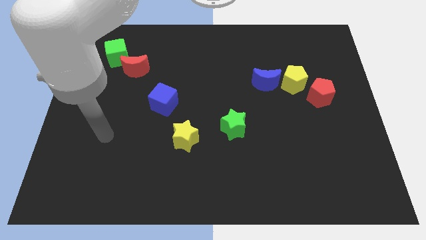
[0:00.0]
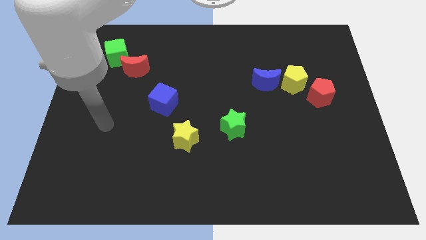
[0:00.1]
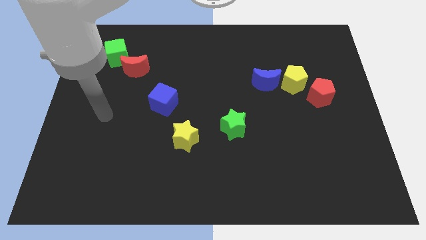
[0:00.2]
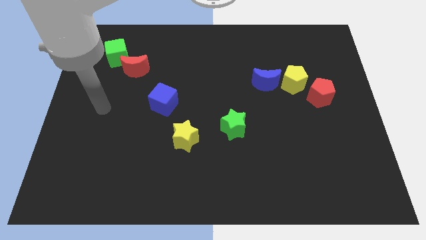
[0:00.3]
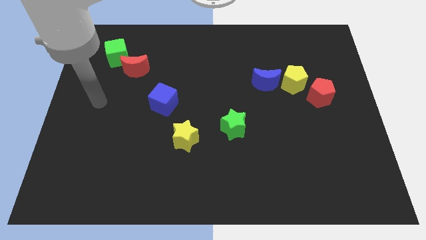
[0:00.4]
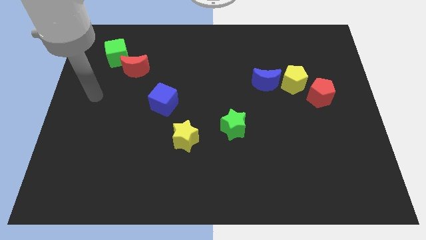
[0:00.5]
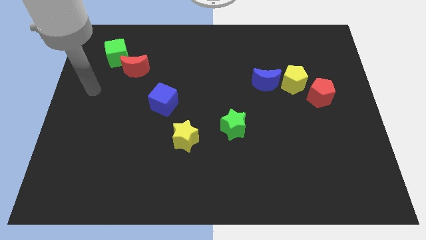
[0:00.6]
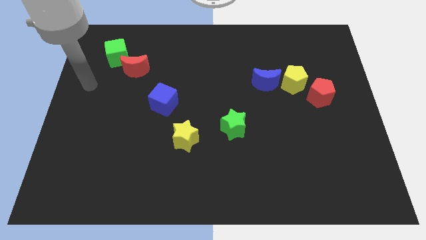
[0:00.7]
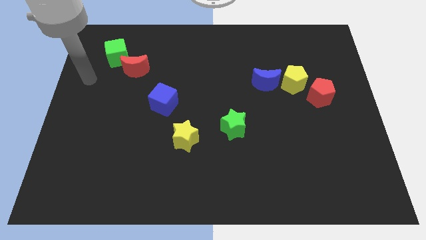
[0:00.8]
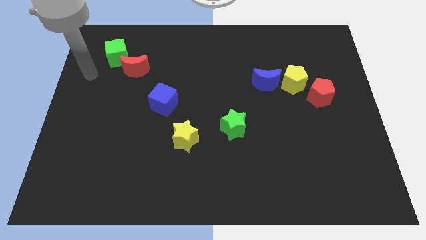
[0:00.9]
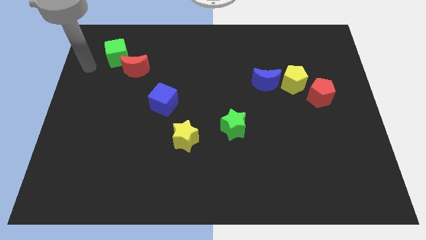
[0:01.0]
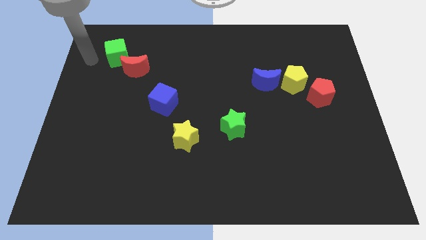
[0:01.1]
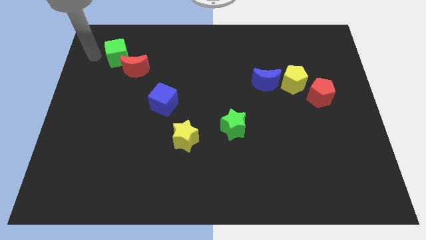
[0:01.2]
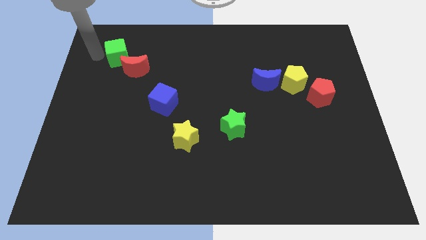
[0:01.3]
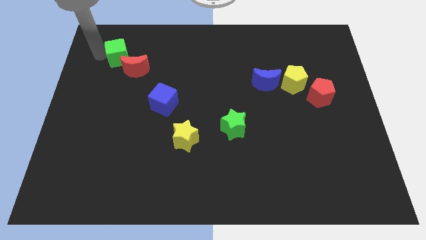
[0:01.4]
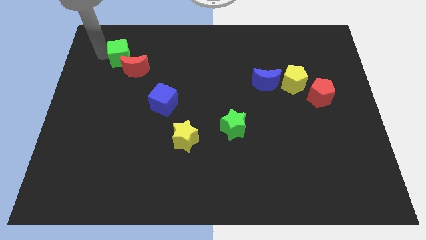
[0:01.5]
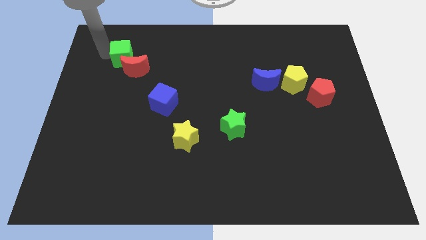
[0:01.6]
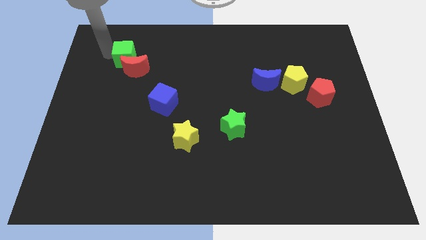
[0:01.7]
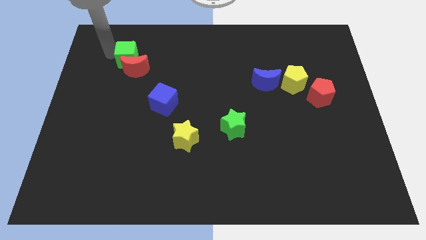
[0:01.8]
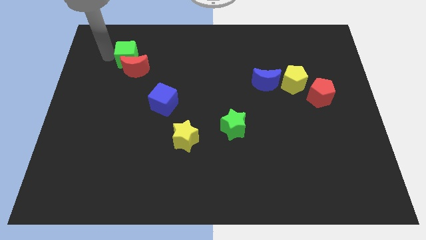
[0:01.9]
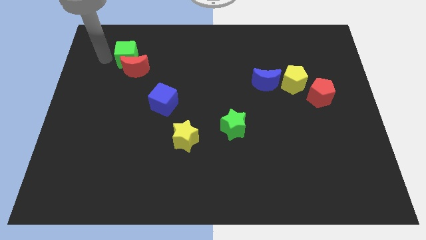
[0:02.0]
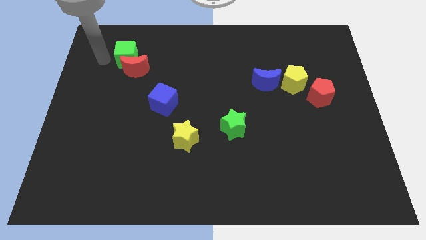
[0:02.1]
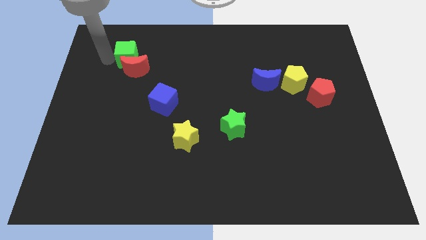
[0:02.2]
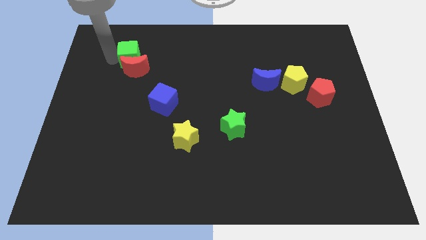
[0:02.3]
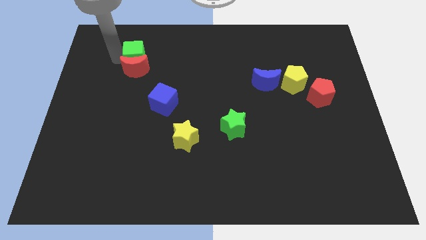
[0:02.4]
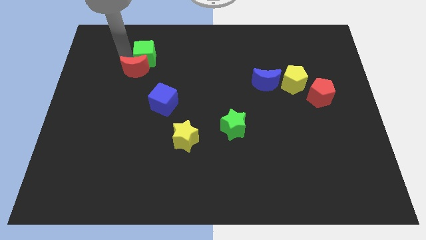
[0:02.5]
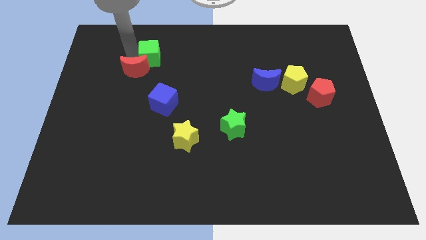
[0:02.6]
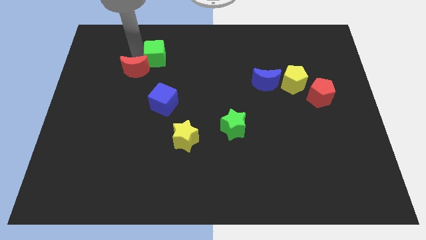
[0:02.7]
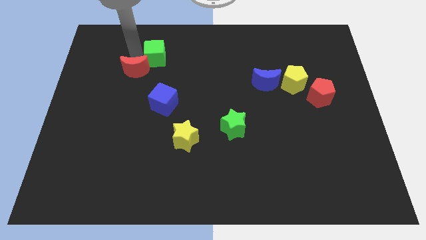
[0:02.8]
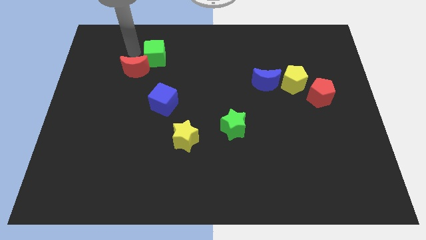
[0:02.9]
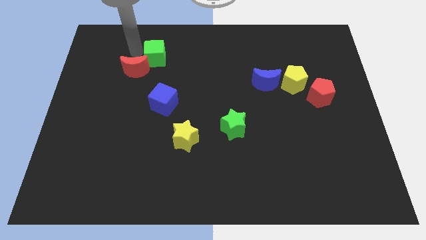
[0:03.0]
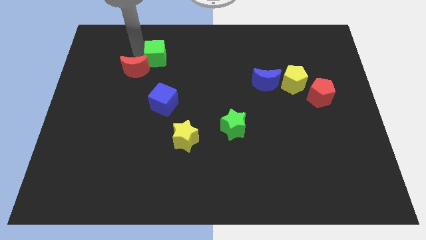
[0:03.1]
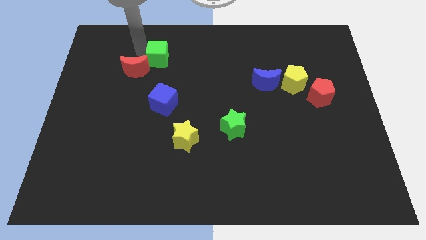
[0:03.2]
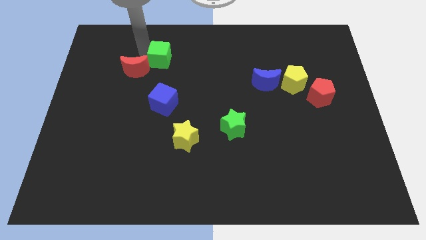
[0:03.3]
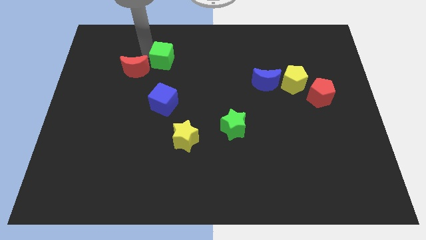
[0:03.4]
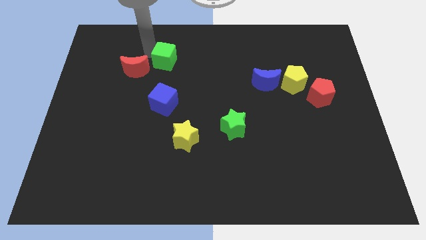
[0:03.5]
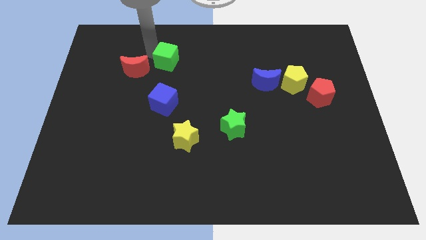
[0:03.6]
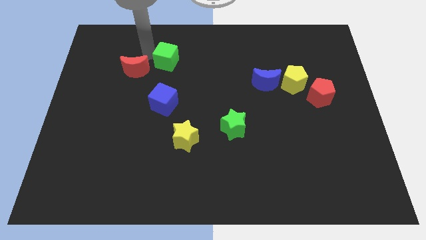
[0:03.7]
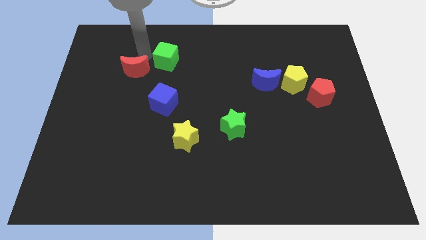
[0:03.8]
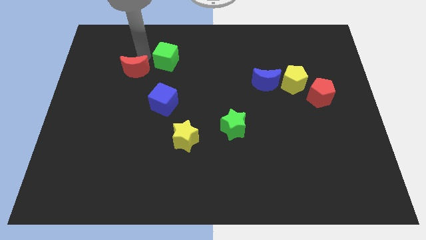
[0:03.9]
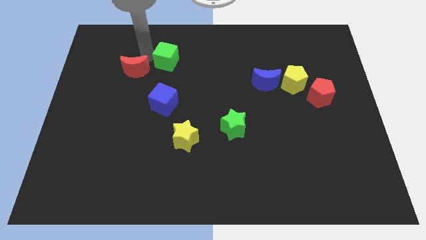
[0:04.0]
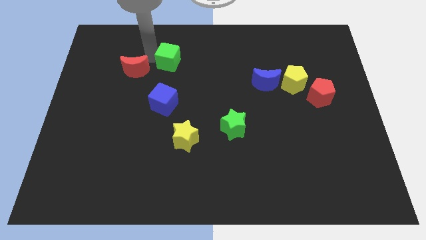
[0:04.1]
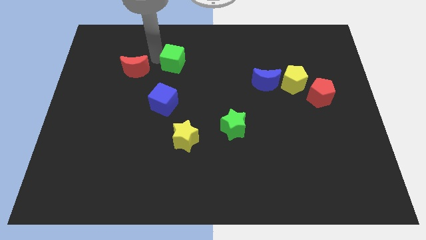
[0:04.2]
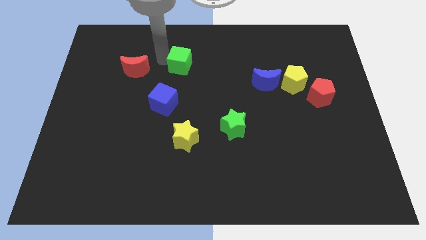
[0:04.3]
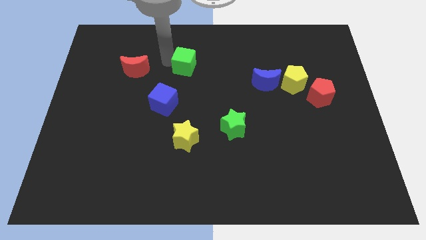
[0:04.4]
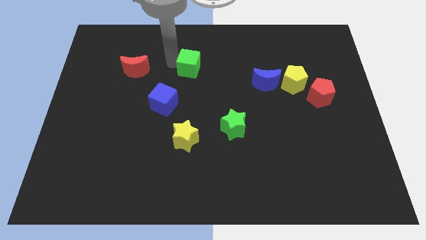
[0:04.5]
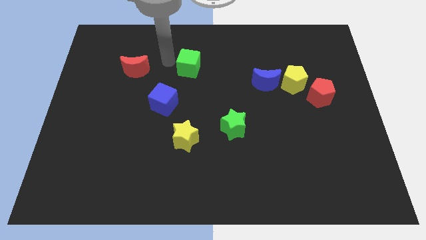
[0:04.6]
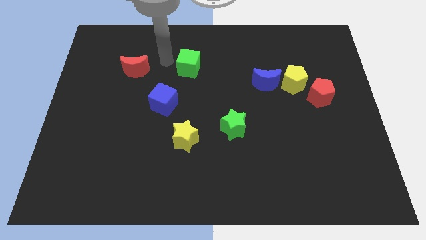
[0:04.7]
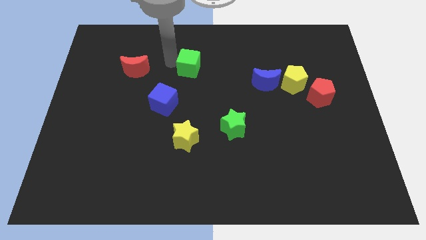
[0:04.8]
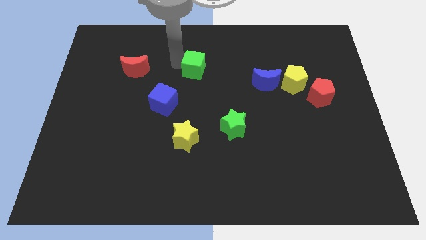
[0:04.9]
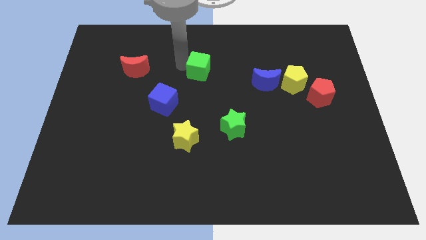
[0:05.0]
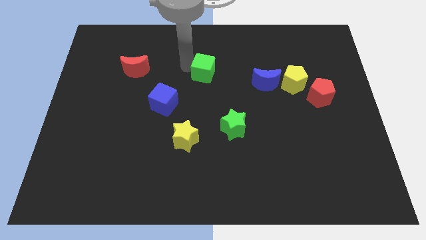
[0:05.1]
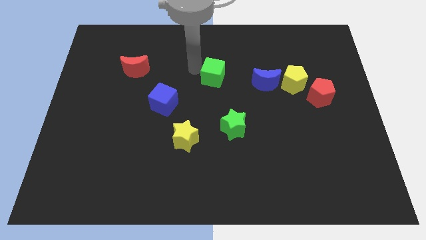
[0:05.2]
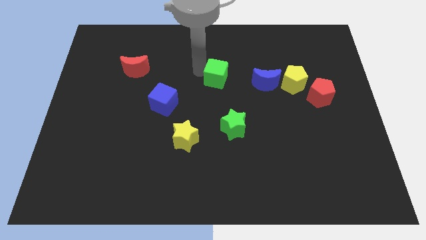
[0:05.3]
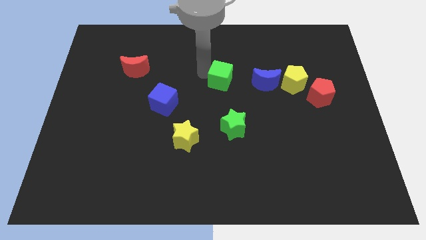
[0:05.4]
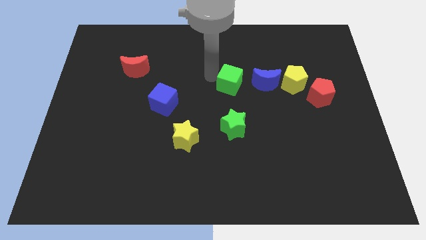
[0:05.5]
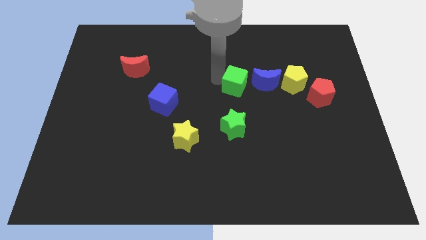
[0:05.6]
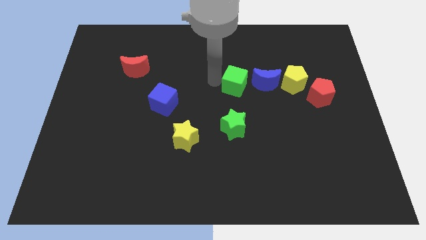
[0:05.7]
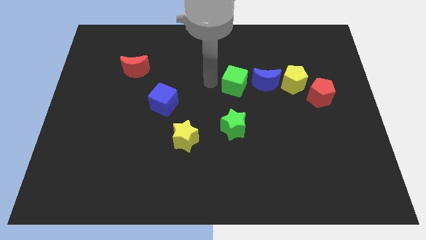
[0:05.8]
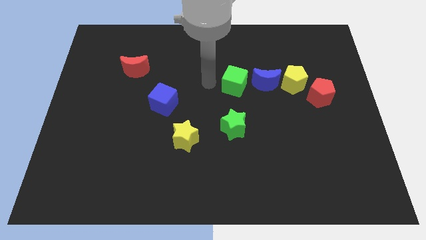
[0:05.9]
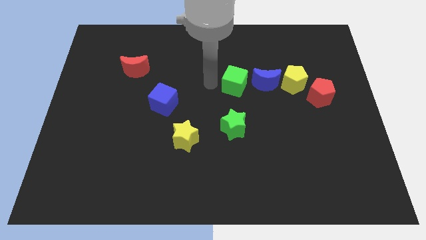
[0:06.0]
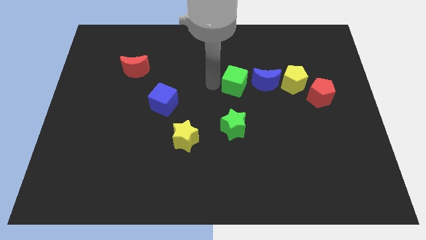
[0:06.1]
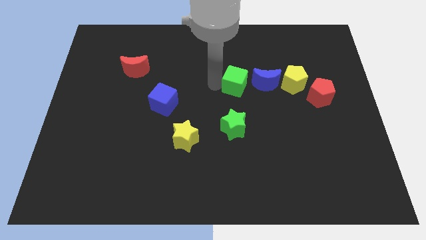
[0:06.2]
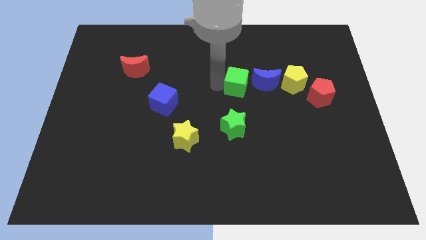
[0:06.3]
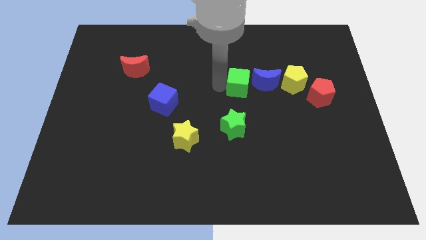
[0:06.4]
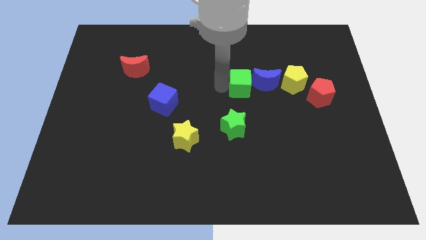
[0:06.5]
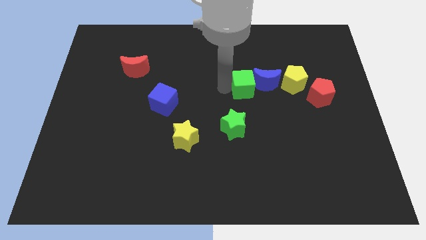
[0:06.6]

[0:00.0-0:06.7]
push the green cube to the blue moon

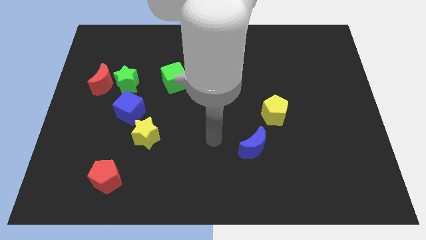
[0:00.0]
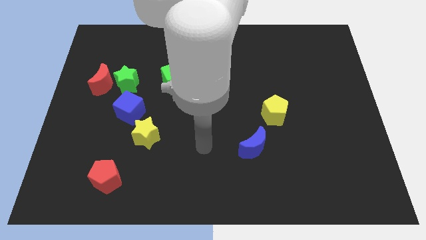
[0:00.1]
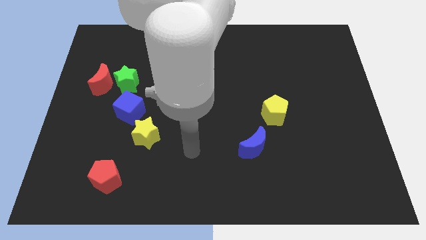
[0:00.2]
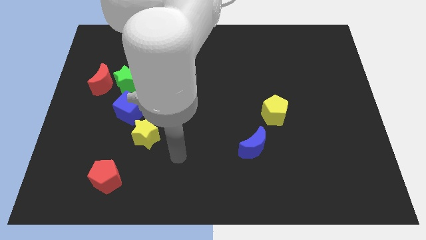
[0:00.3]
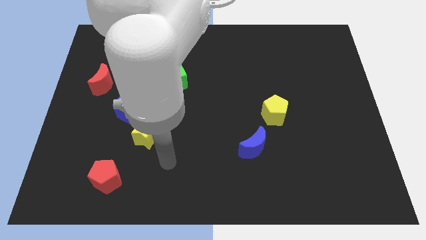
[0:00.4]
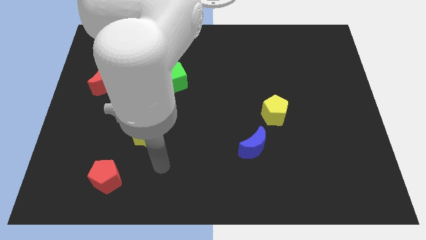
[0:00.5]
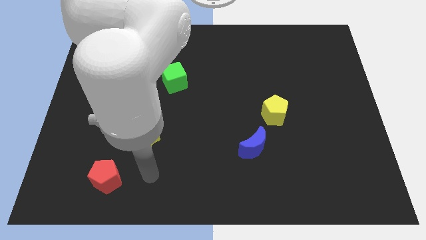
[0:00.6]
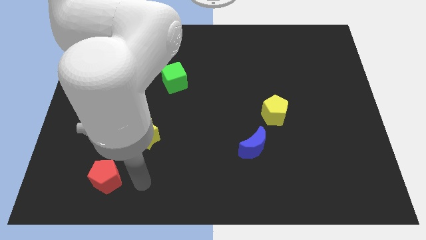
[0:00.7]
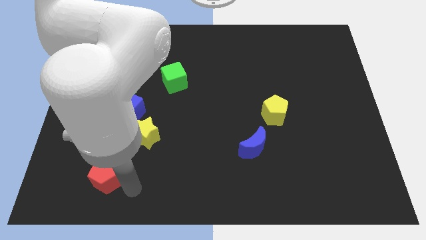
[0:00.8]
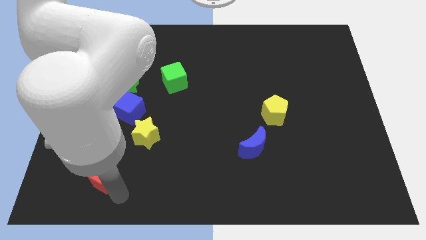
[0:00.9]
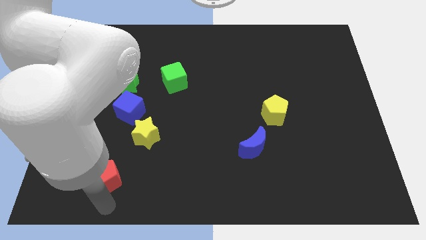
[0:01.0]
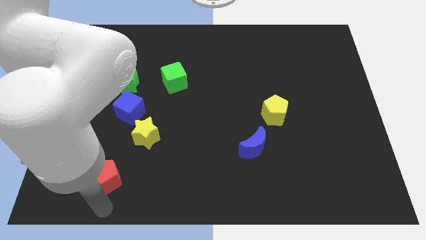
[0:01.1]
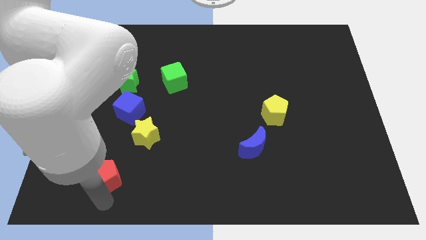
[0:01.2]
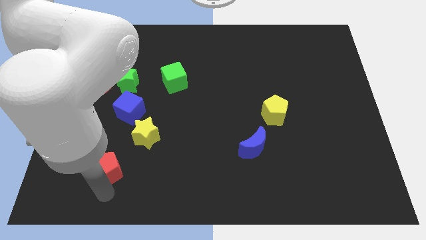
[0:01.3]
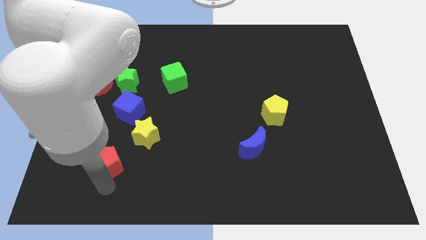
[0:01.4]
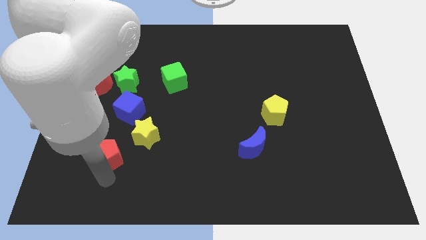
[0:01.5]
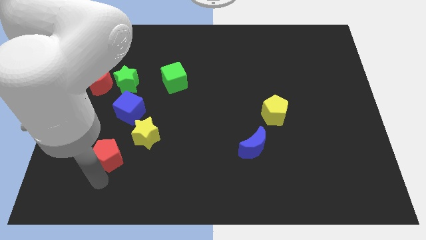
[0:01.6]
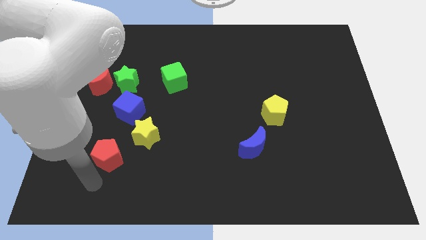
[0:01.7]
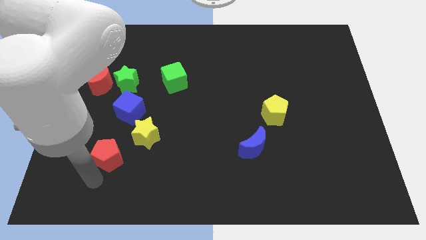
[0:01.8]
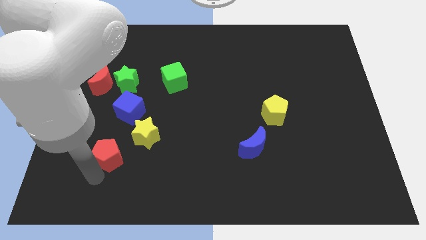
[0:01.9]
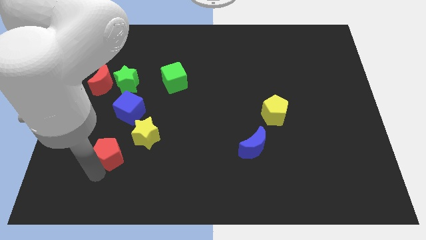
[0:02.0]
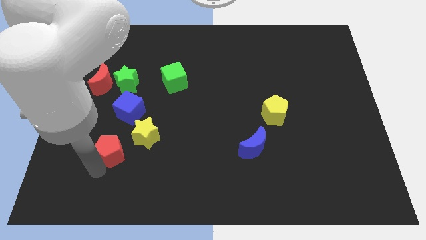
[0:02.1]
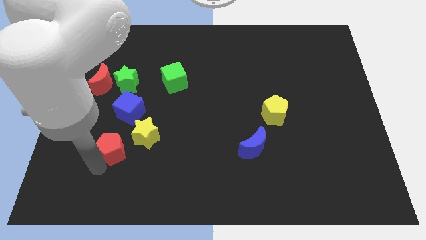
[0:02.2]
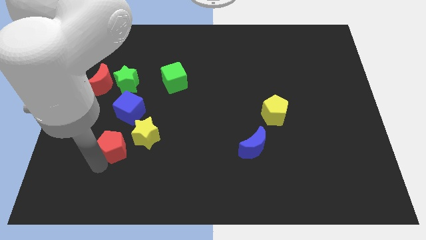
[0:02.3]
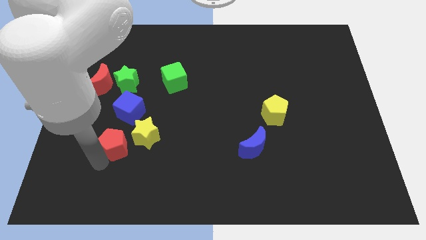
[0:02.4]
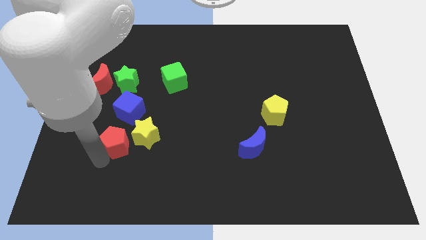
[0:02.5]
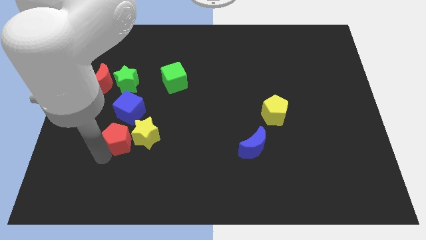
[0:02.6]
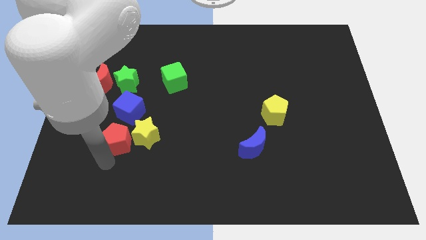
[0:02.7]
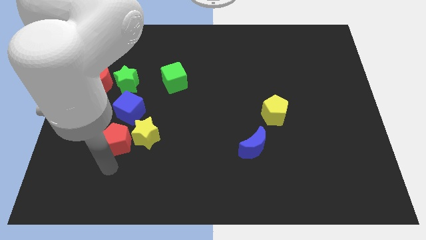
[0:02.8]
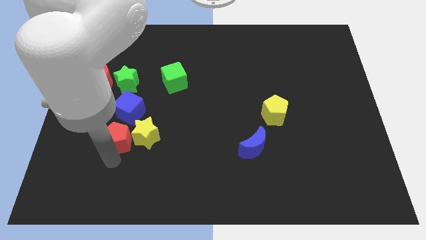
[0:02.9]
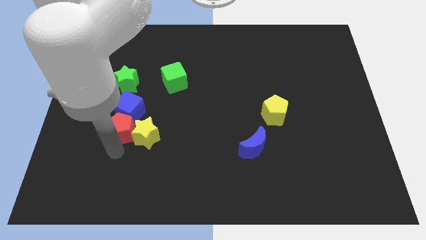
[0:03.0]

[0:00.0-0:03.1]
put the red pentagon next to the blue cube
